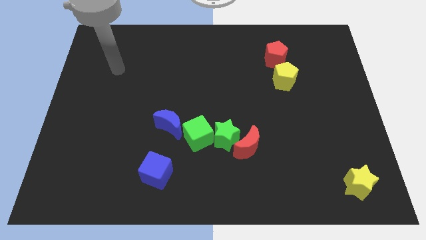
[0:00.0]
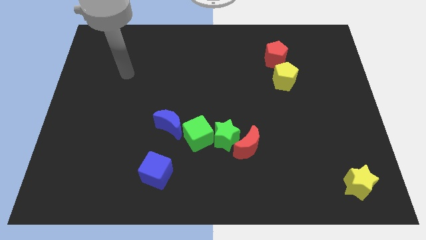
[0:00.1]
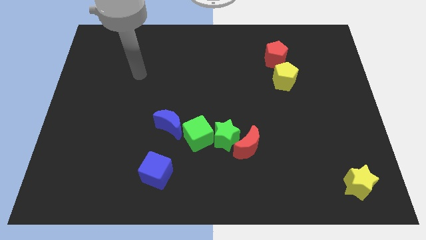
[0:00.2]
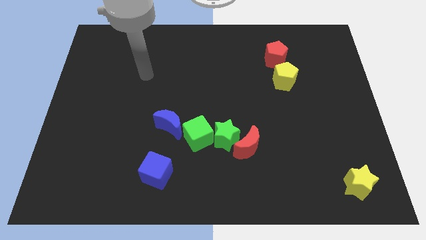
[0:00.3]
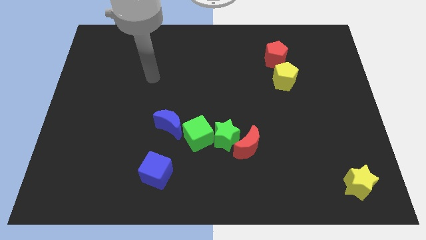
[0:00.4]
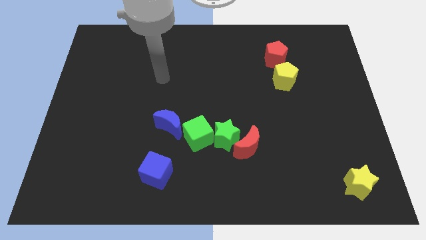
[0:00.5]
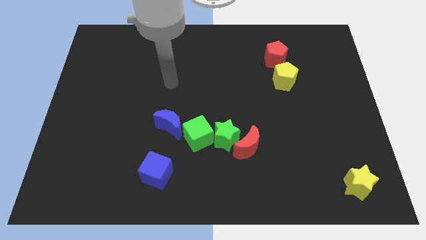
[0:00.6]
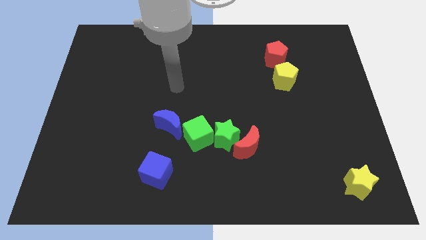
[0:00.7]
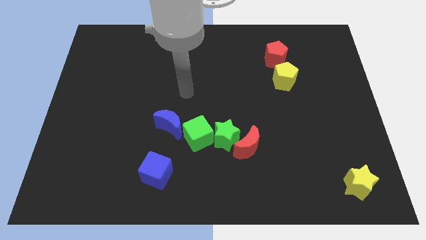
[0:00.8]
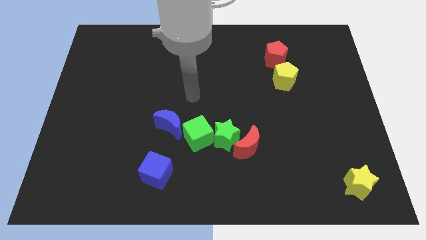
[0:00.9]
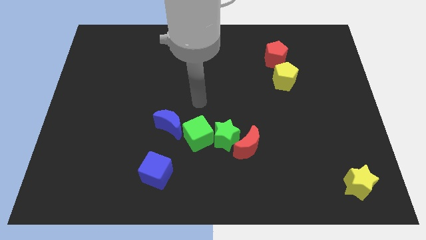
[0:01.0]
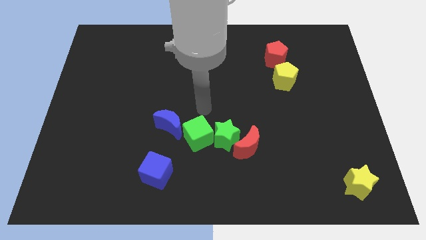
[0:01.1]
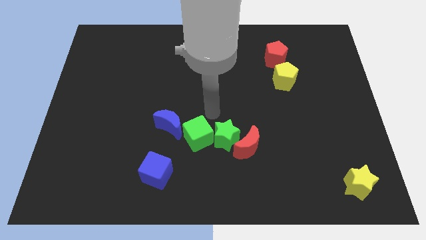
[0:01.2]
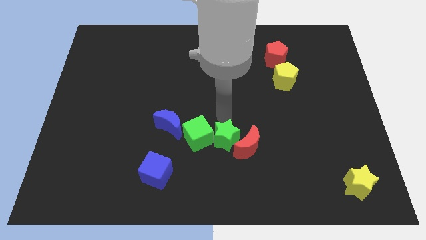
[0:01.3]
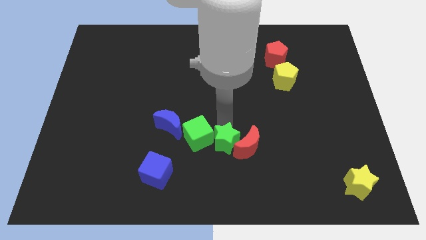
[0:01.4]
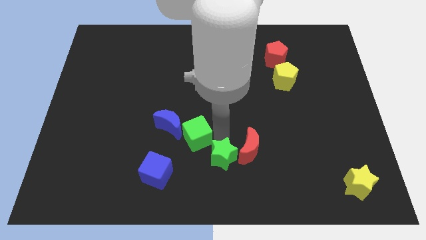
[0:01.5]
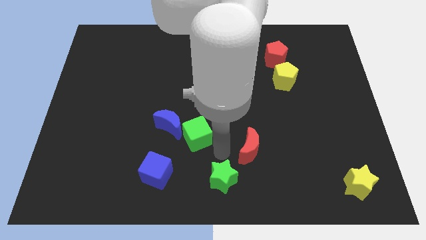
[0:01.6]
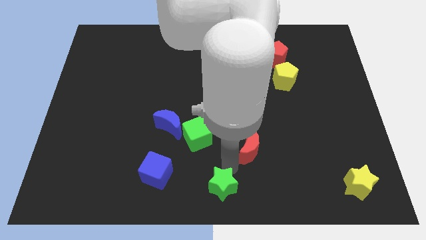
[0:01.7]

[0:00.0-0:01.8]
separate the red moon from the green star

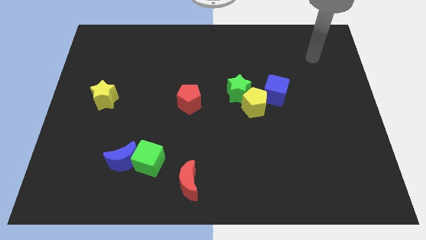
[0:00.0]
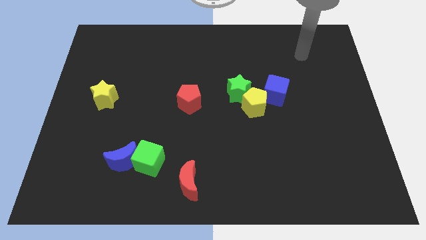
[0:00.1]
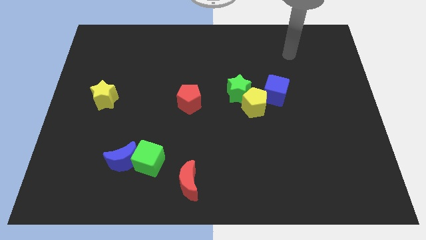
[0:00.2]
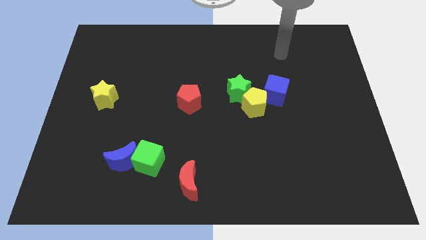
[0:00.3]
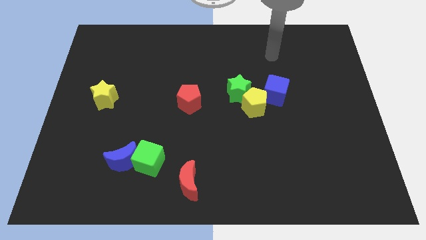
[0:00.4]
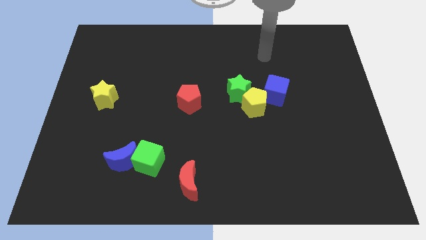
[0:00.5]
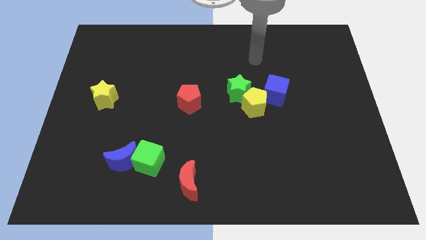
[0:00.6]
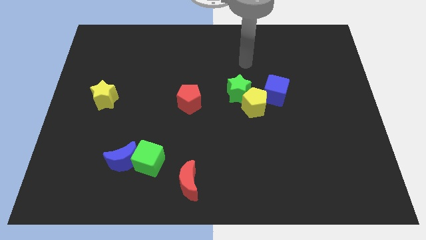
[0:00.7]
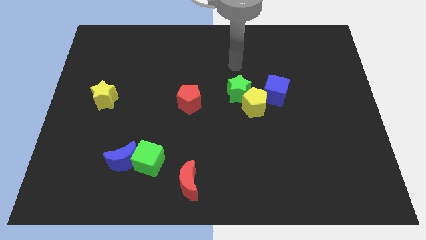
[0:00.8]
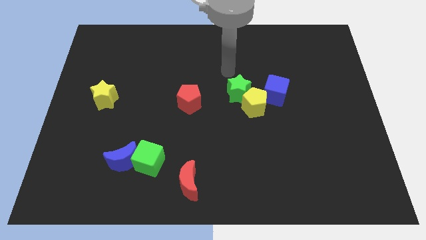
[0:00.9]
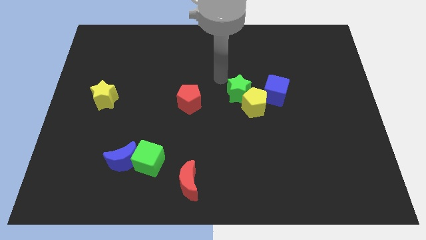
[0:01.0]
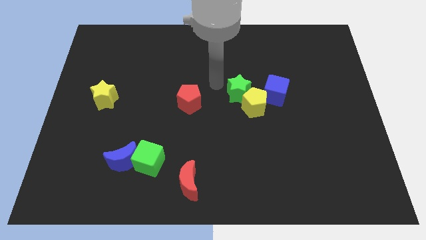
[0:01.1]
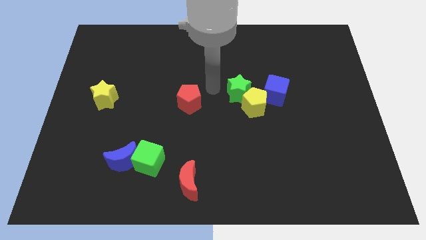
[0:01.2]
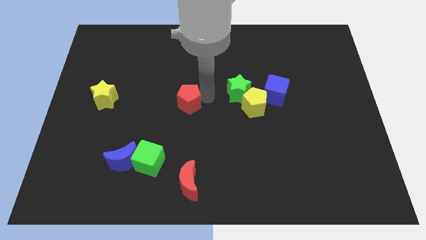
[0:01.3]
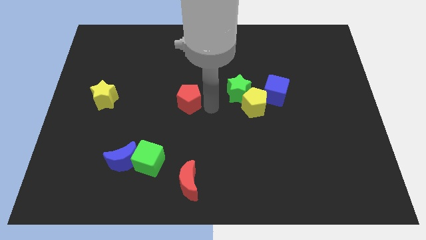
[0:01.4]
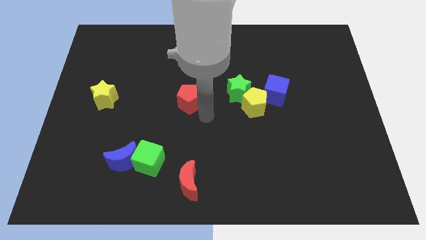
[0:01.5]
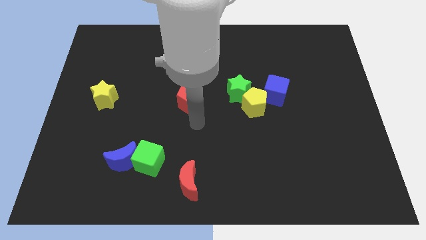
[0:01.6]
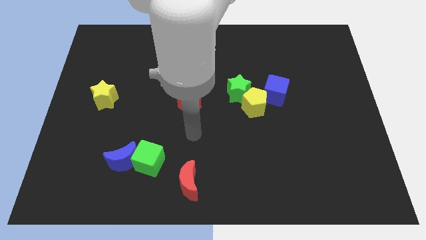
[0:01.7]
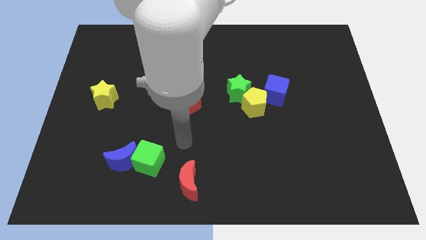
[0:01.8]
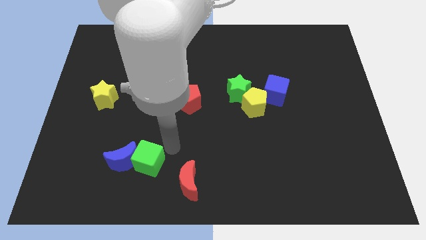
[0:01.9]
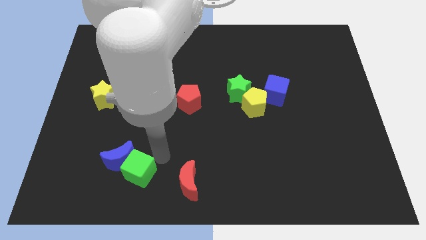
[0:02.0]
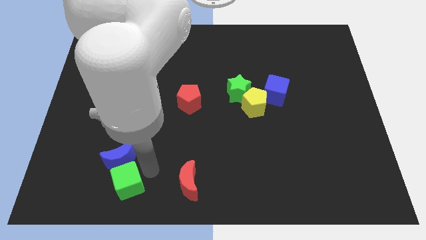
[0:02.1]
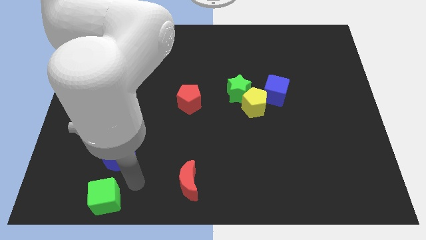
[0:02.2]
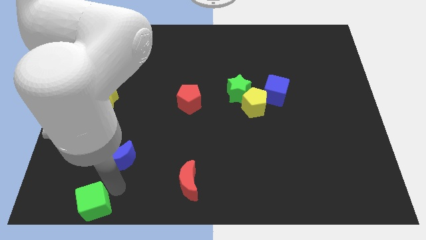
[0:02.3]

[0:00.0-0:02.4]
move the blue moon away from the green cube

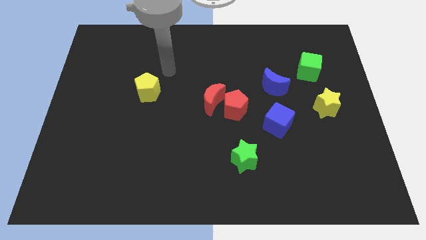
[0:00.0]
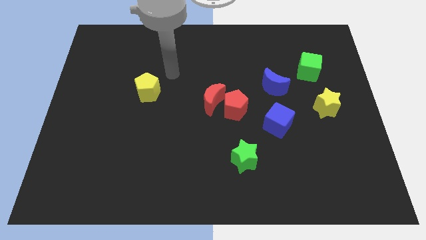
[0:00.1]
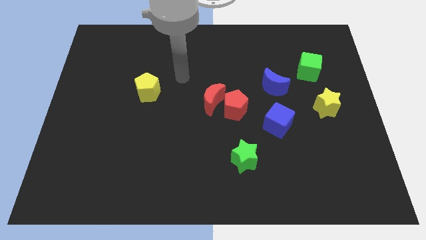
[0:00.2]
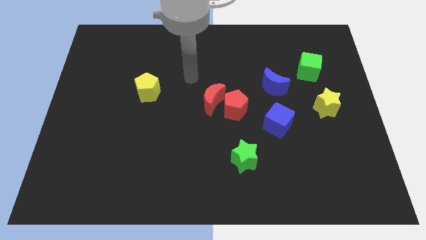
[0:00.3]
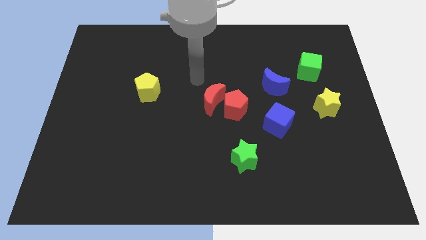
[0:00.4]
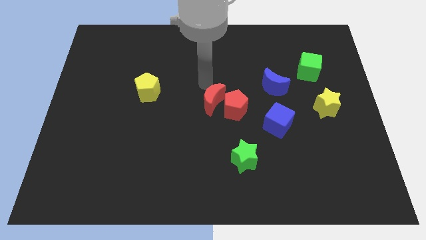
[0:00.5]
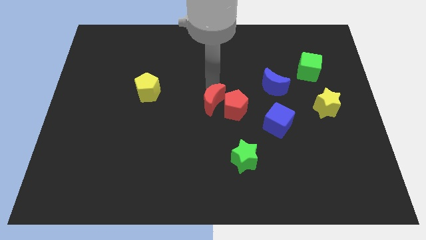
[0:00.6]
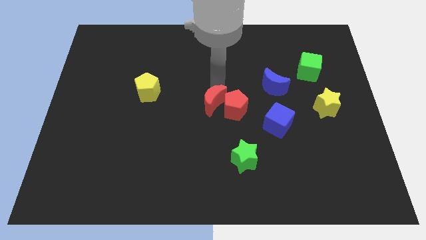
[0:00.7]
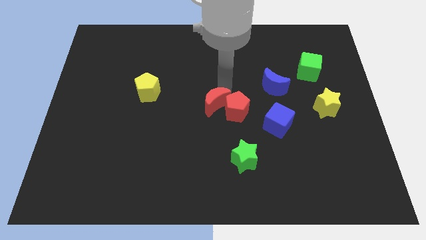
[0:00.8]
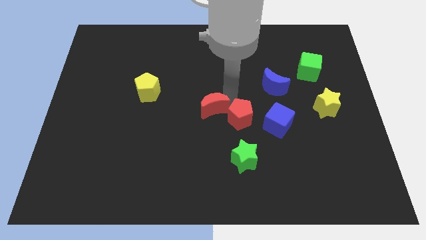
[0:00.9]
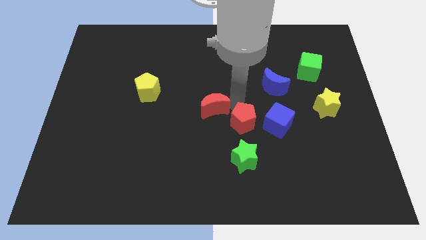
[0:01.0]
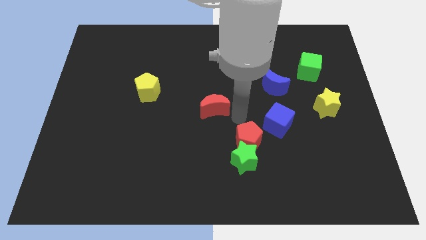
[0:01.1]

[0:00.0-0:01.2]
pull the red moon apart from the red pentagon

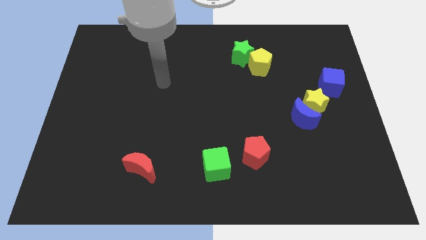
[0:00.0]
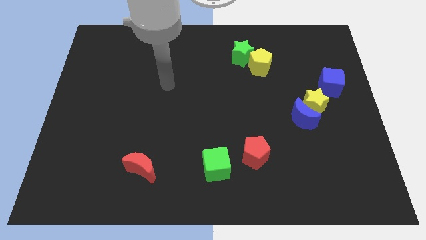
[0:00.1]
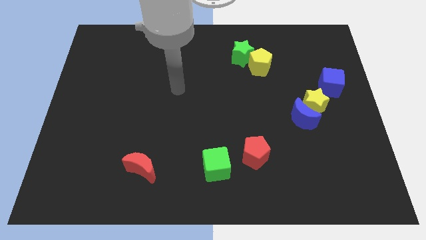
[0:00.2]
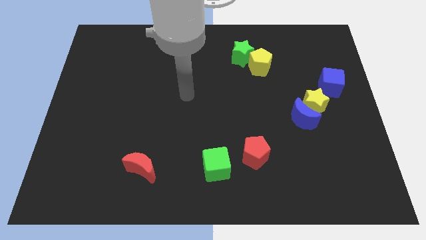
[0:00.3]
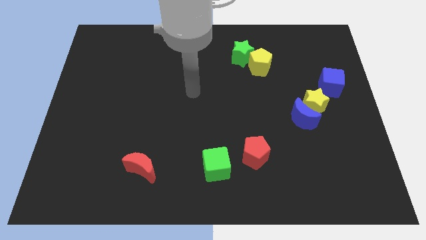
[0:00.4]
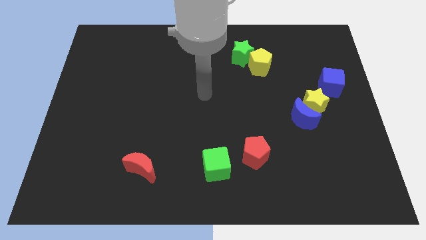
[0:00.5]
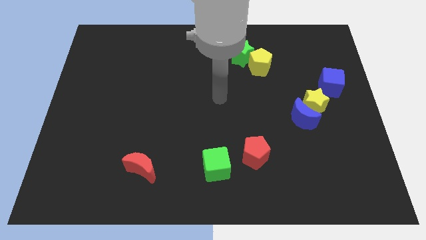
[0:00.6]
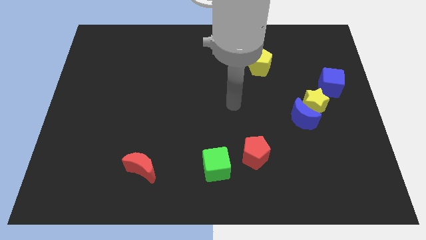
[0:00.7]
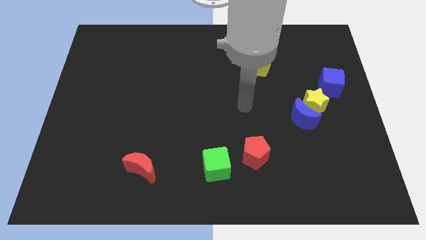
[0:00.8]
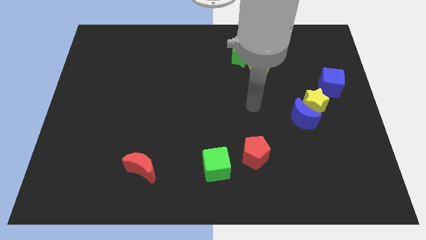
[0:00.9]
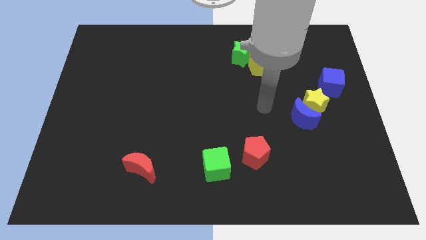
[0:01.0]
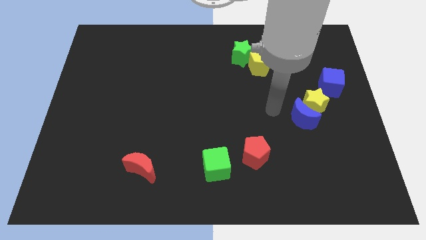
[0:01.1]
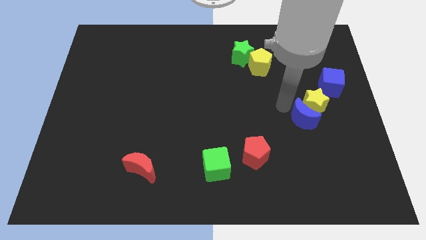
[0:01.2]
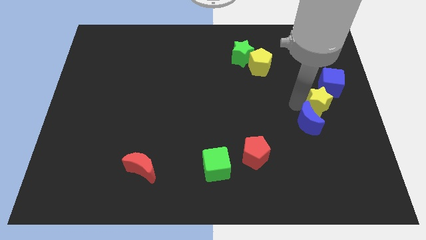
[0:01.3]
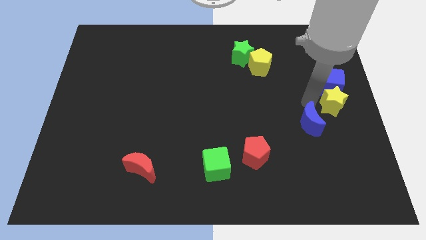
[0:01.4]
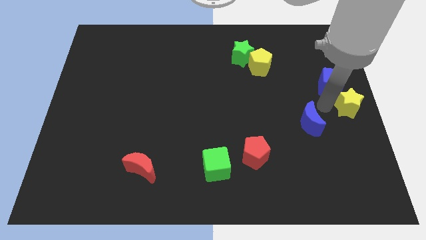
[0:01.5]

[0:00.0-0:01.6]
move the blue moon away from the yellow star

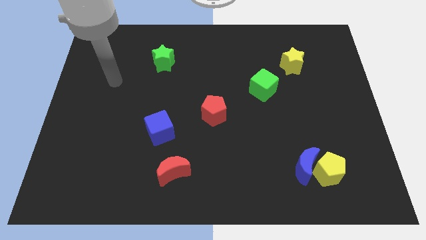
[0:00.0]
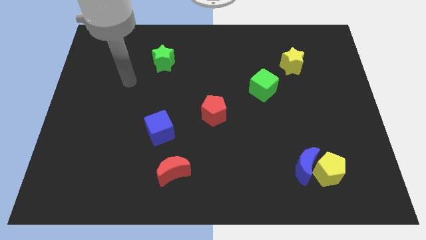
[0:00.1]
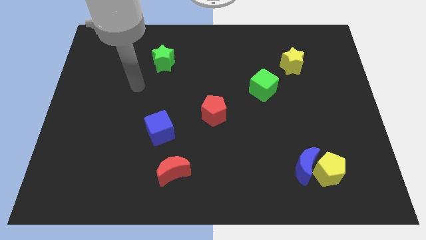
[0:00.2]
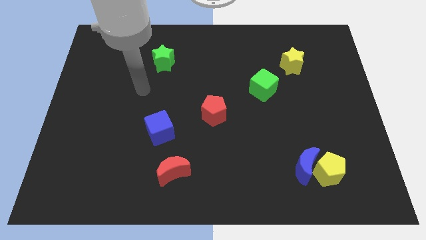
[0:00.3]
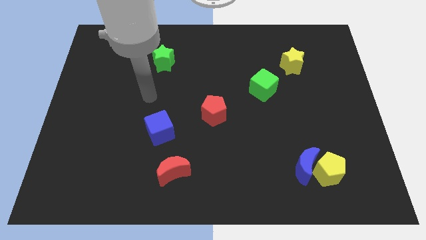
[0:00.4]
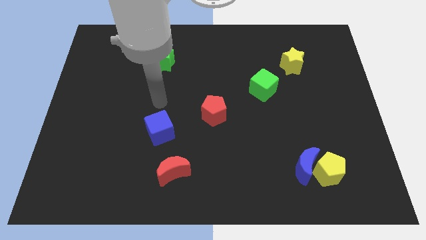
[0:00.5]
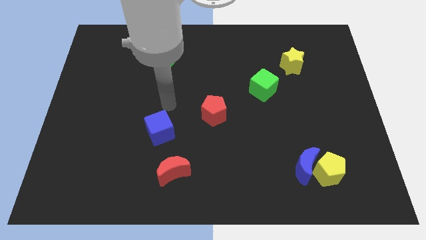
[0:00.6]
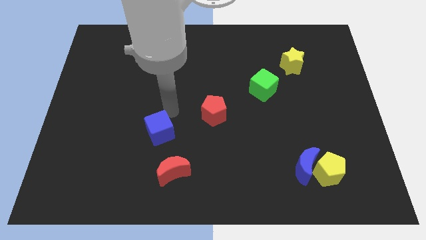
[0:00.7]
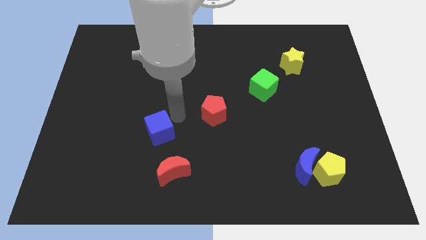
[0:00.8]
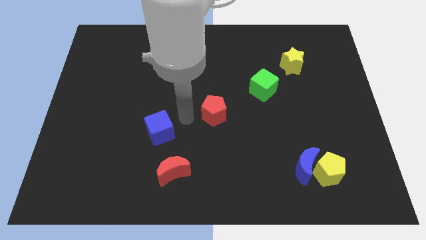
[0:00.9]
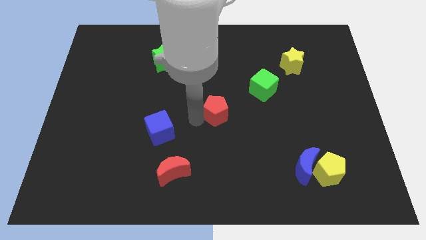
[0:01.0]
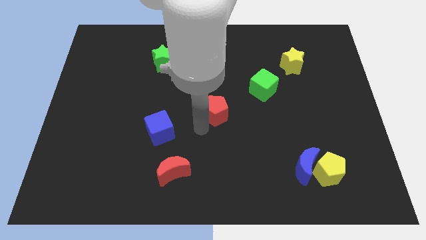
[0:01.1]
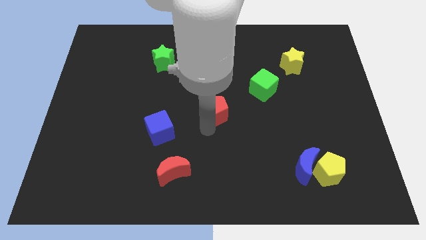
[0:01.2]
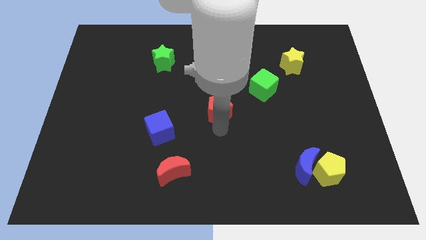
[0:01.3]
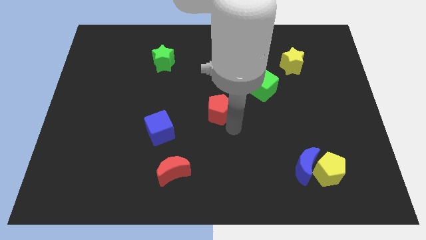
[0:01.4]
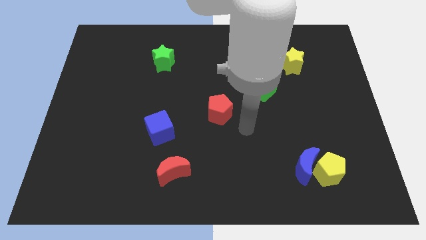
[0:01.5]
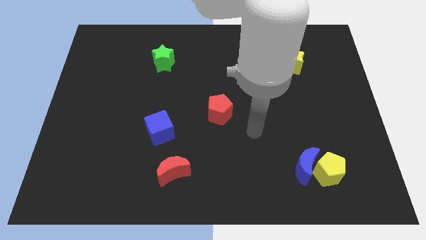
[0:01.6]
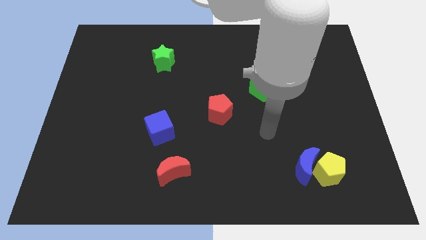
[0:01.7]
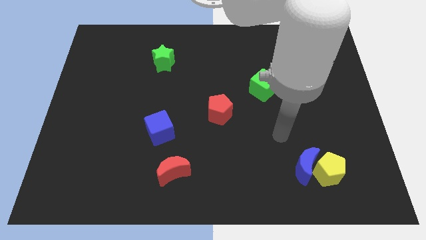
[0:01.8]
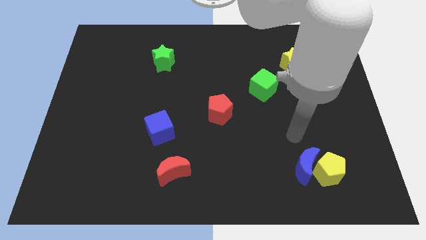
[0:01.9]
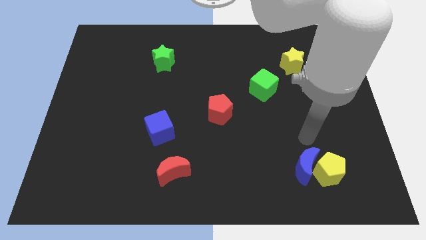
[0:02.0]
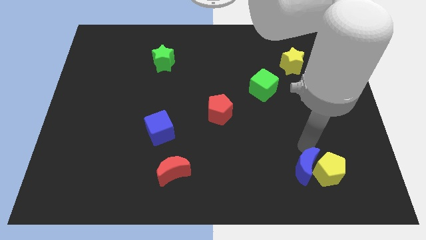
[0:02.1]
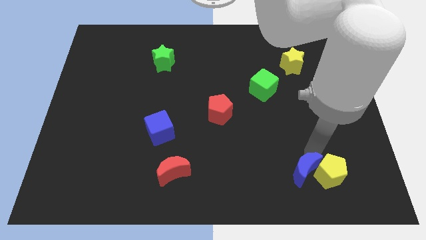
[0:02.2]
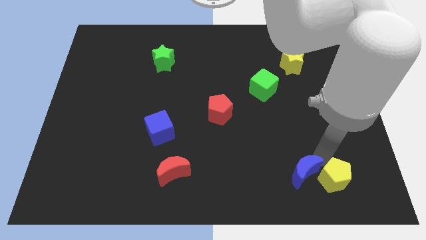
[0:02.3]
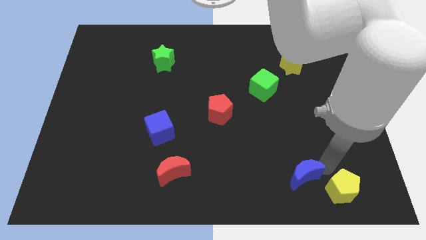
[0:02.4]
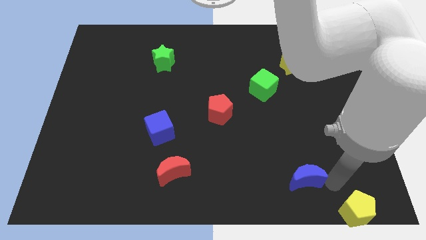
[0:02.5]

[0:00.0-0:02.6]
move the blue moon away from the yellow pentagon
